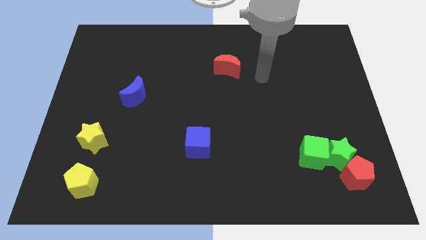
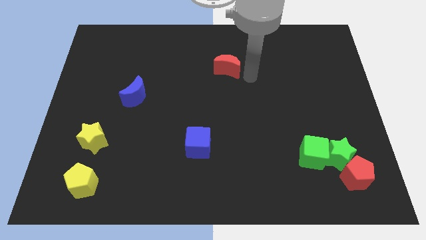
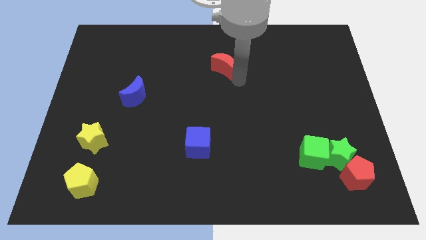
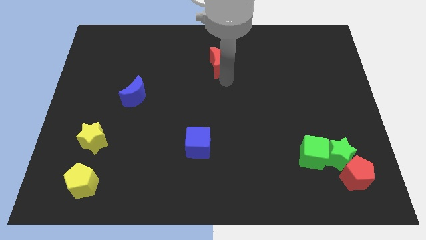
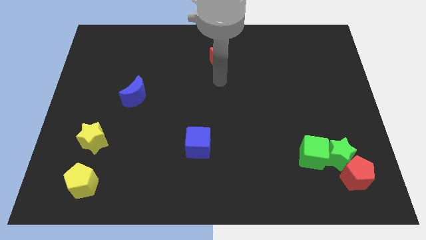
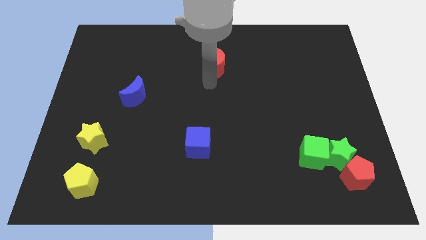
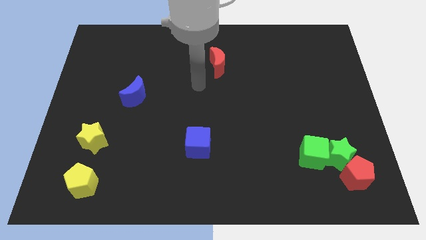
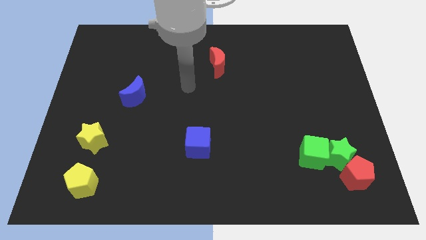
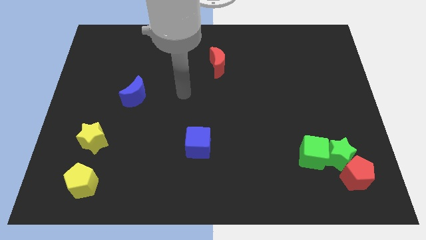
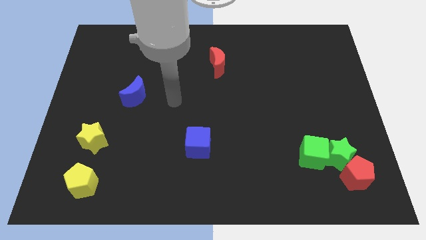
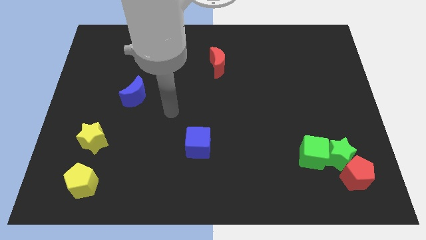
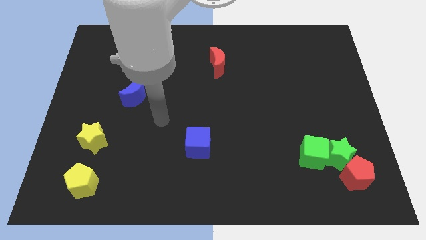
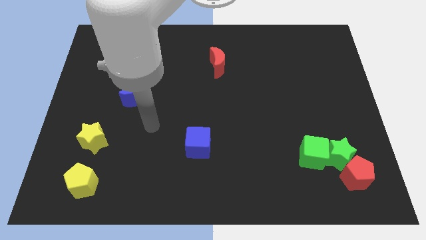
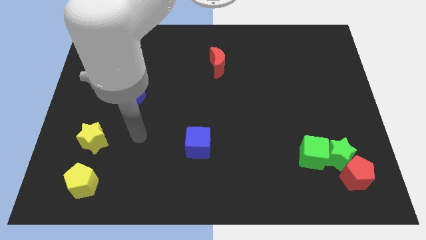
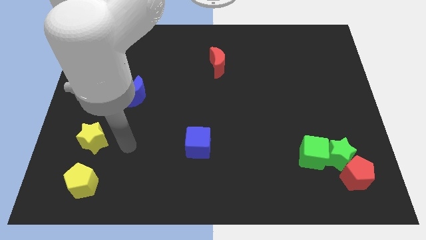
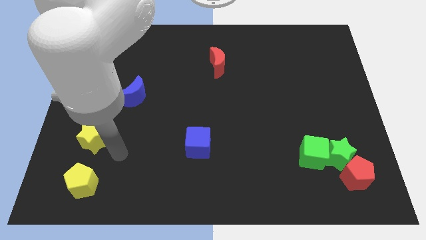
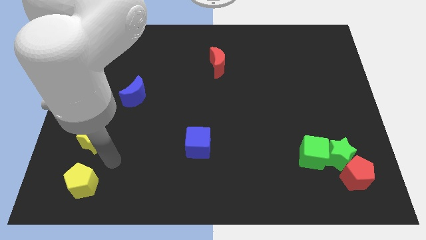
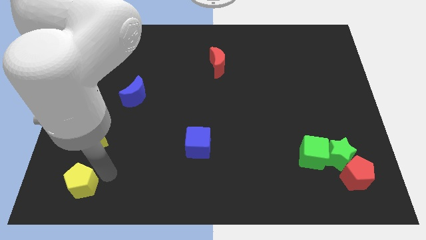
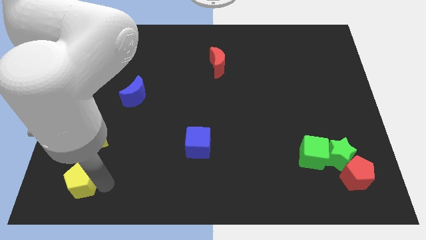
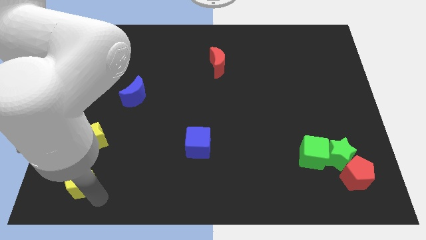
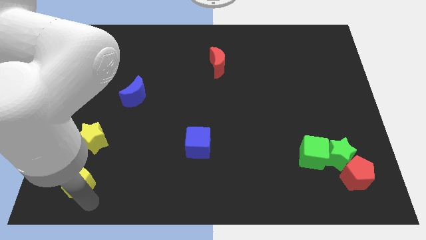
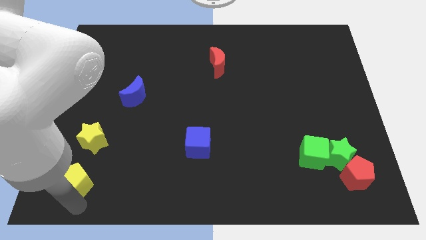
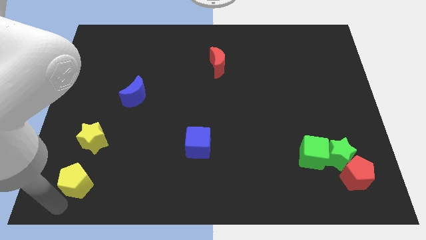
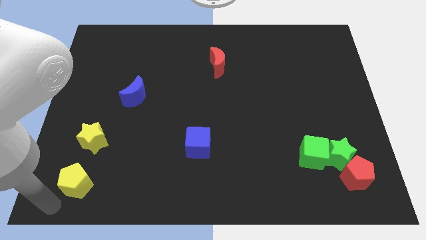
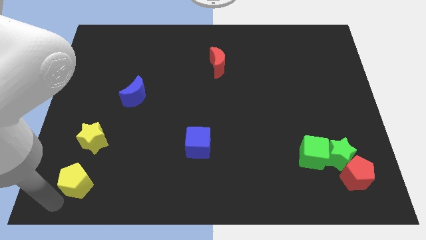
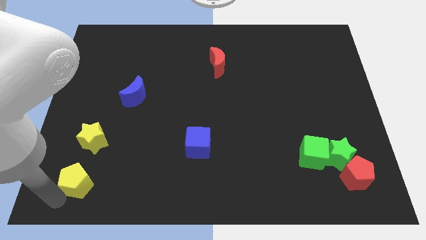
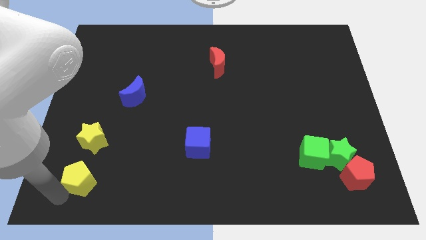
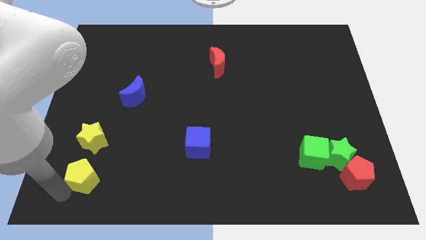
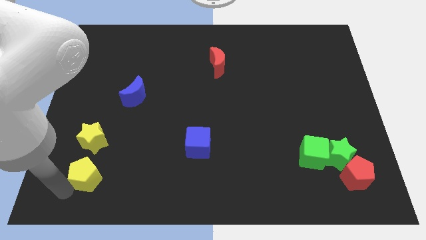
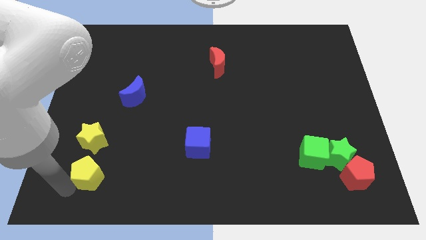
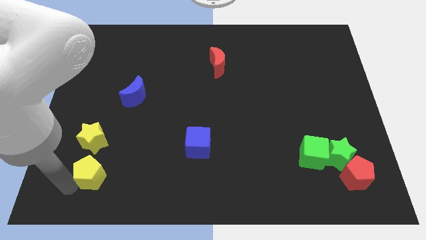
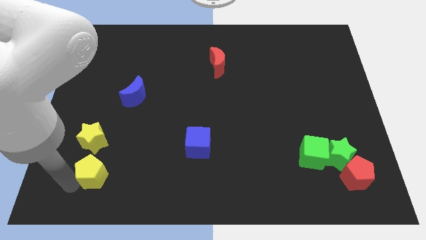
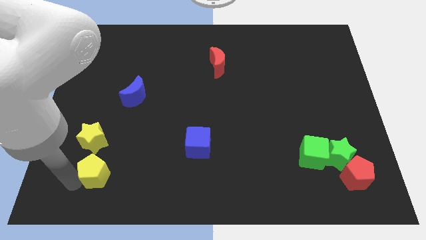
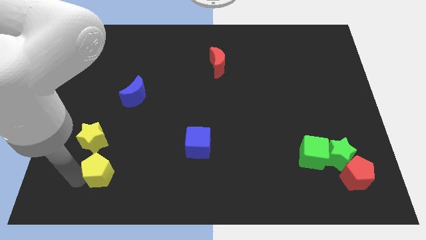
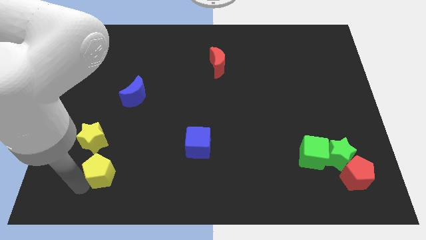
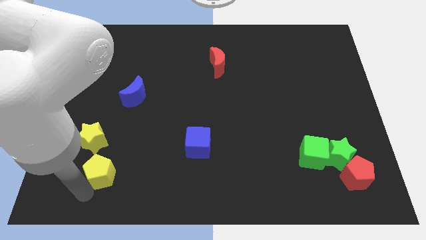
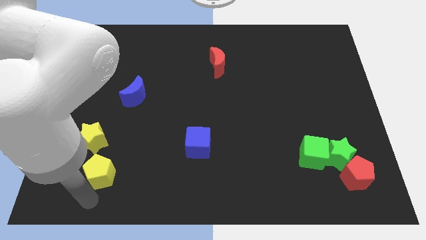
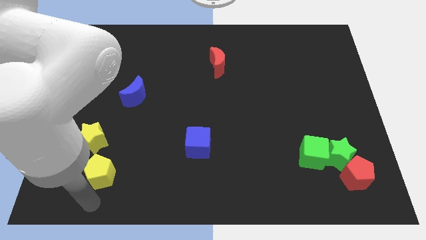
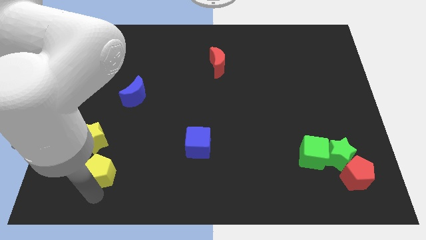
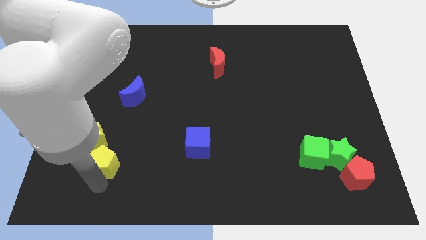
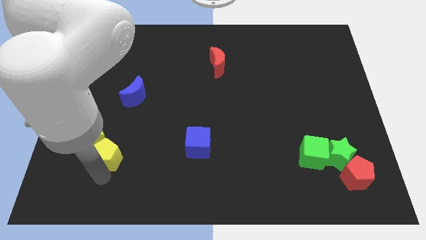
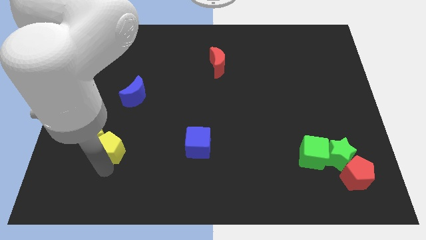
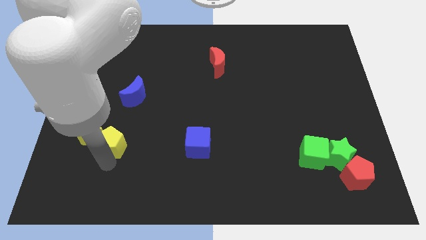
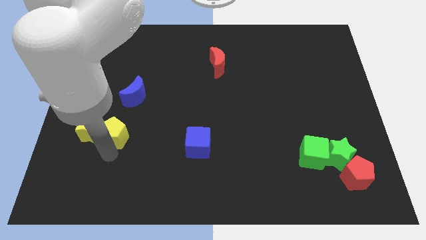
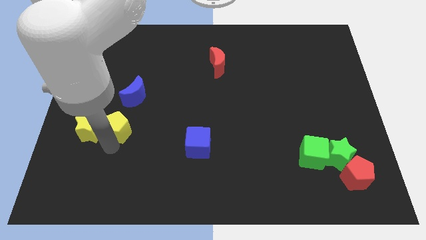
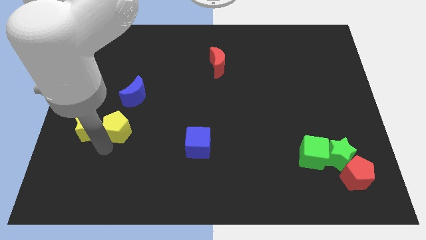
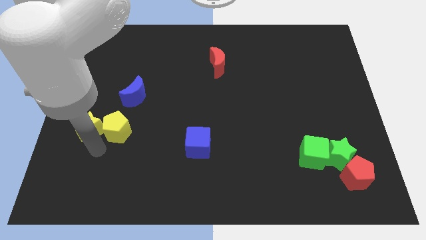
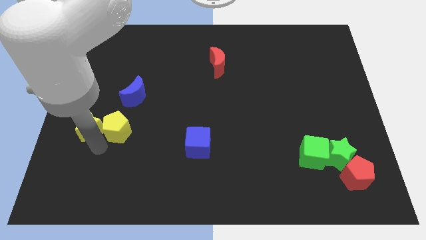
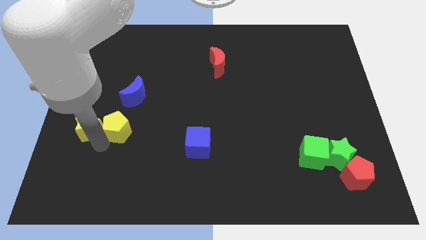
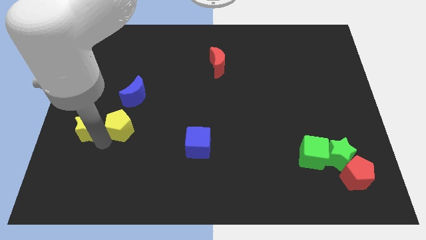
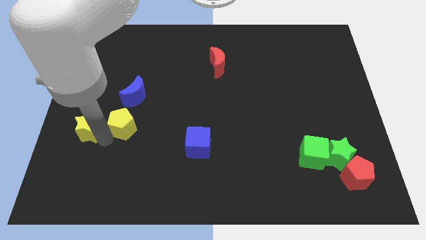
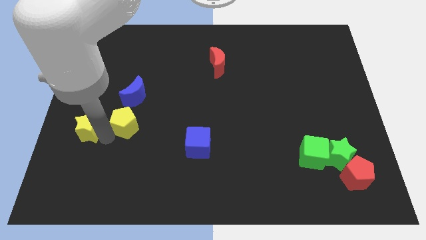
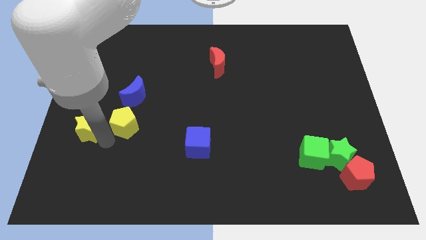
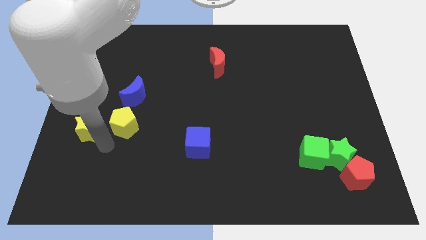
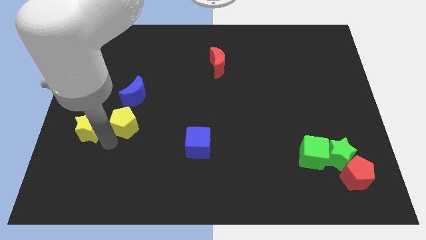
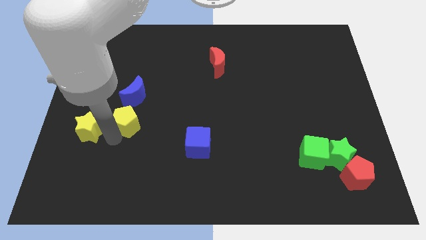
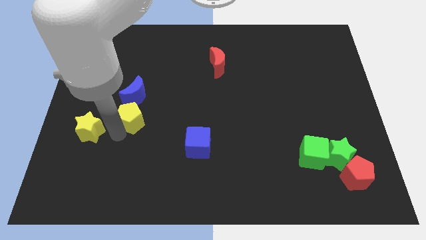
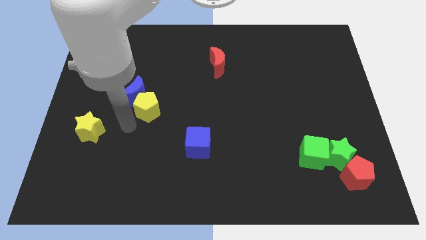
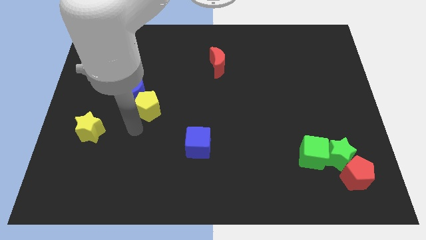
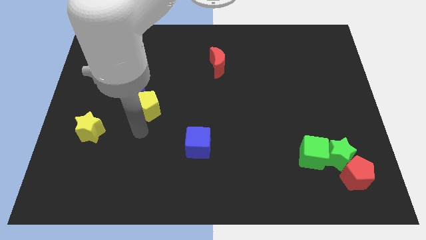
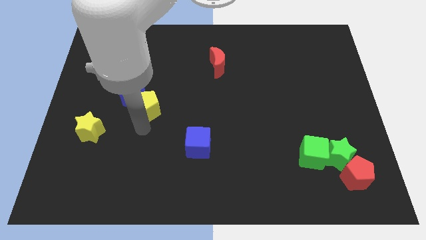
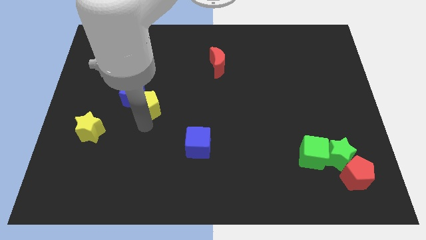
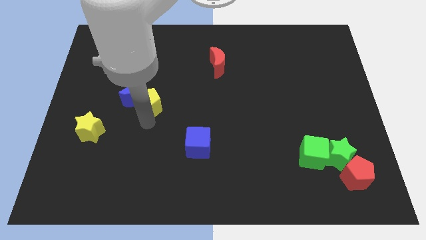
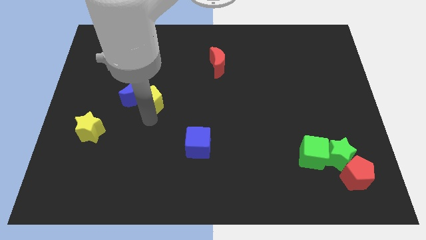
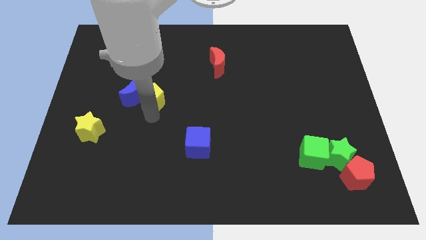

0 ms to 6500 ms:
put the yellow pentagon to the top right side of the blue moon

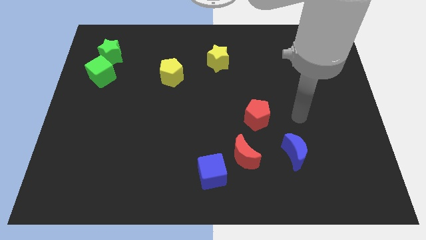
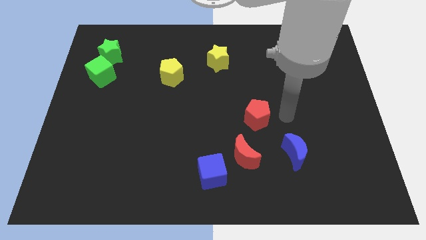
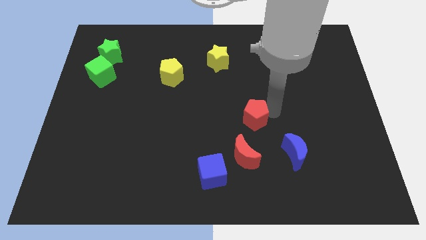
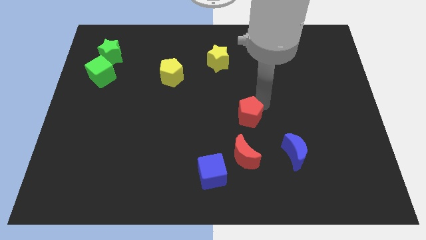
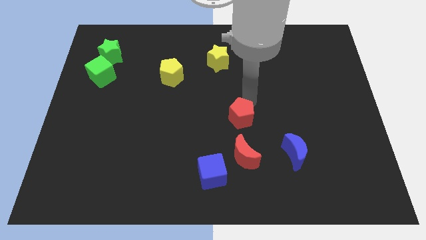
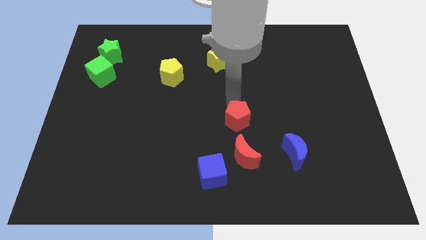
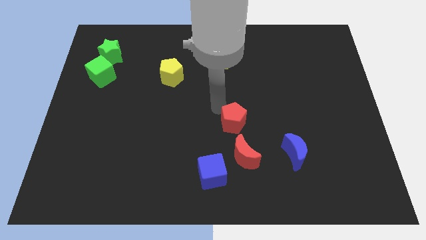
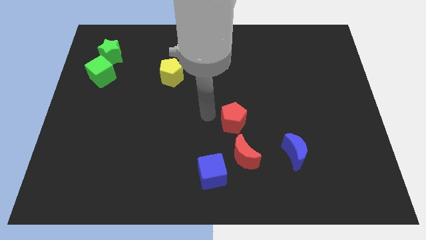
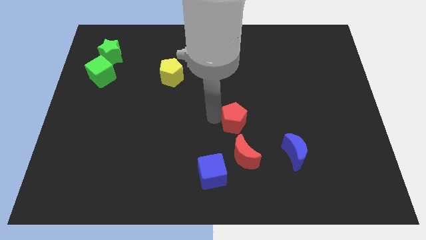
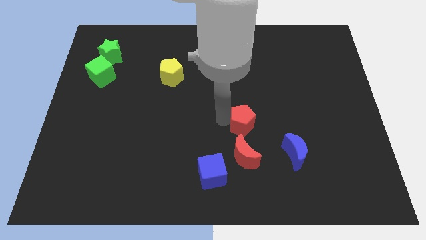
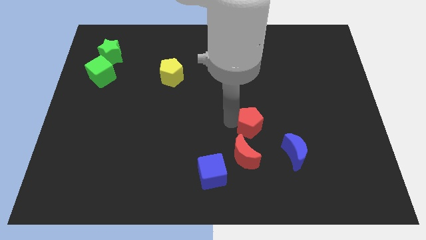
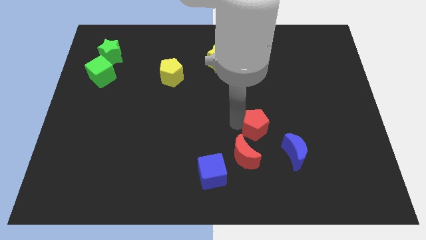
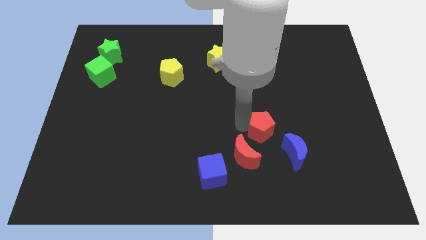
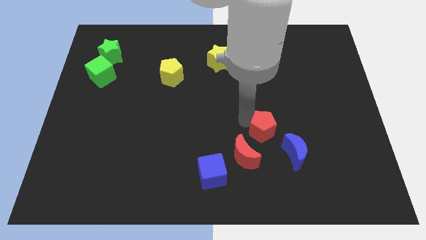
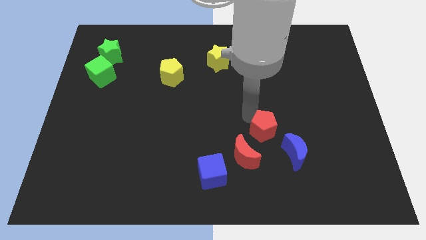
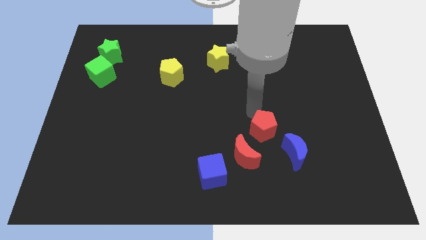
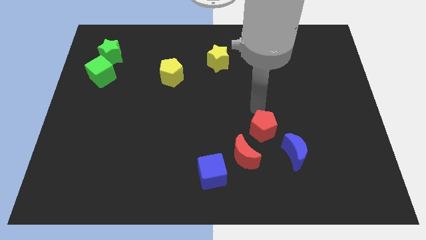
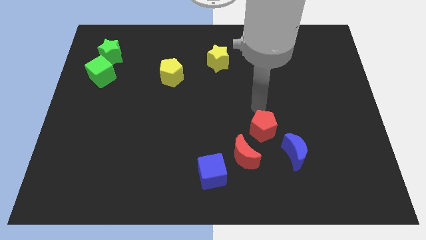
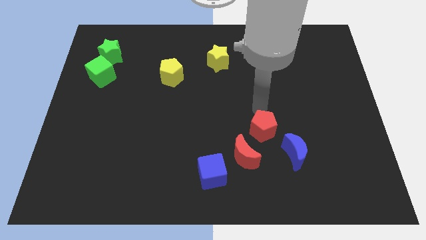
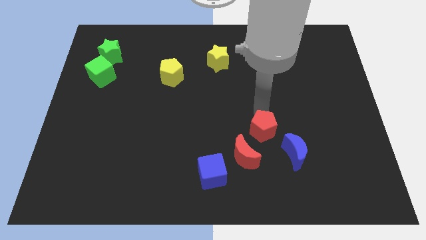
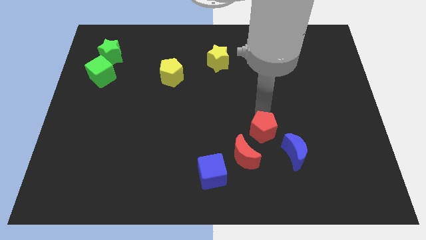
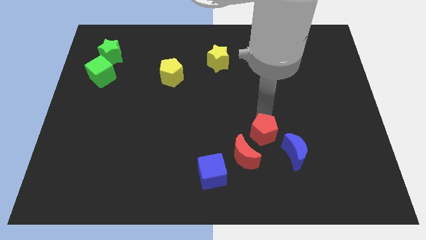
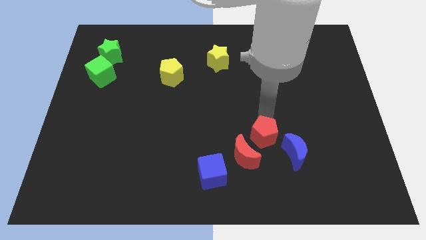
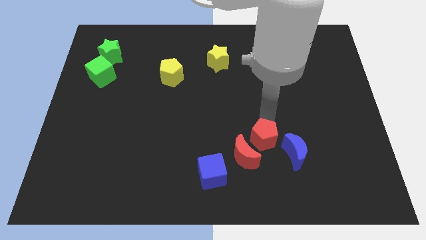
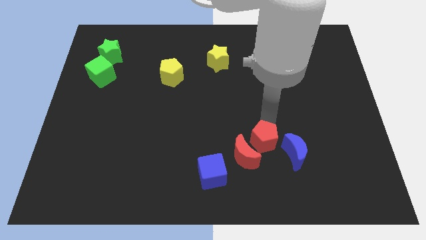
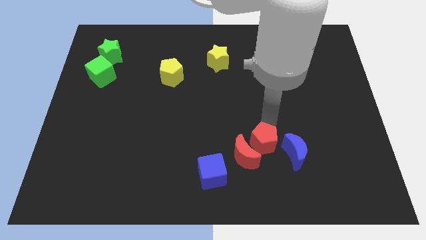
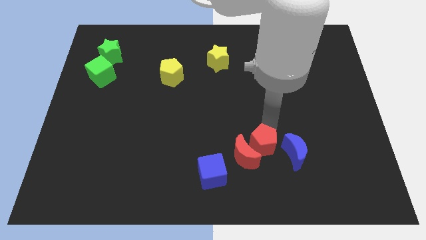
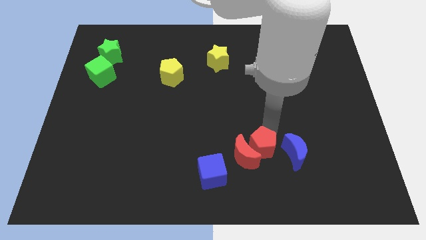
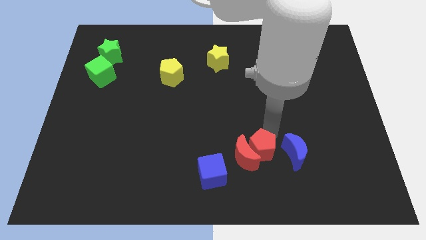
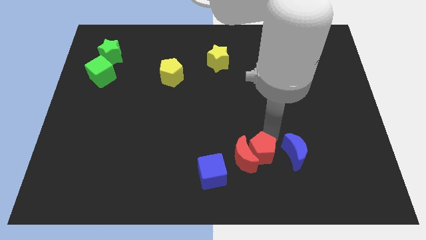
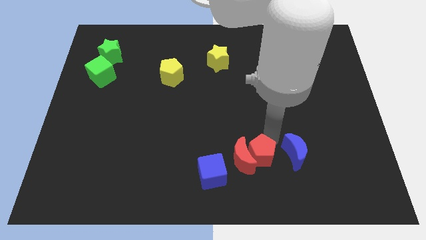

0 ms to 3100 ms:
slide the red pentagon right of the blue cube
